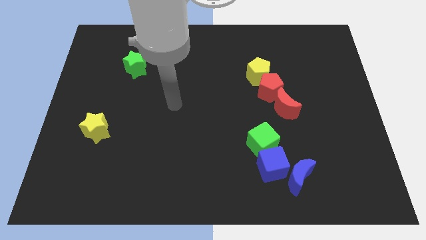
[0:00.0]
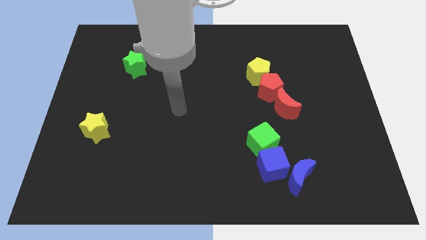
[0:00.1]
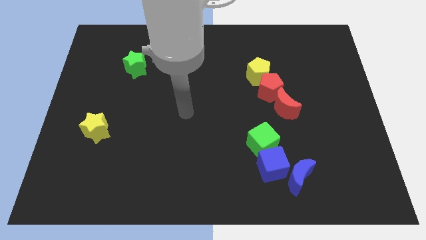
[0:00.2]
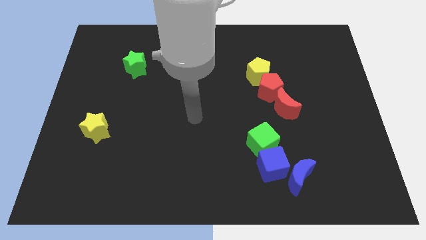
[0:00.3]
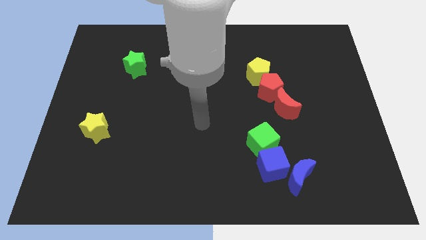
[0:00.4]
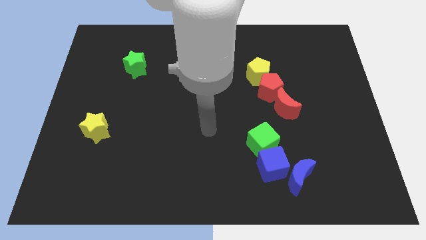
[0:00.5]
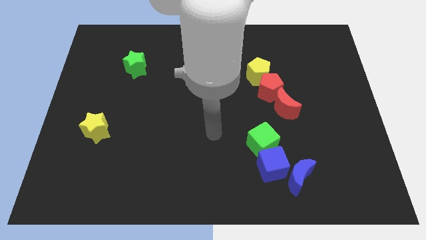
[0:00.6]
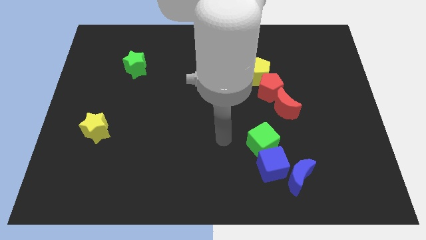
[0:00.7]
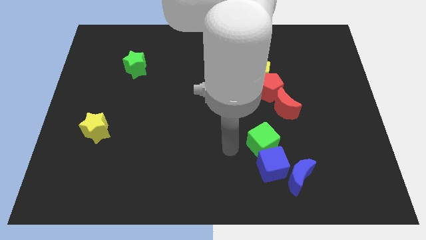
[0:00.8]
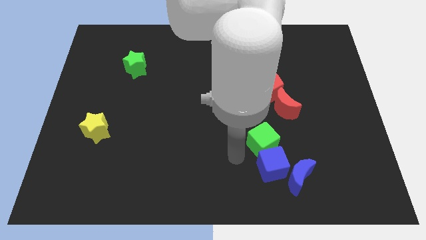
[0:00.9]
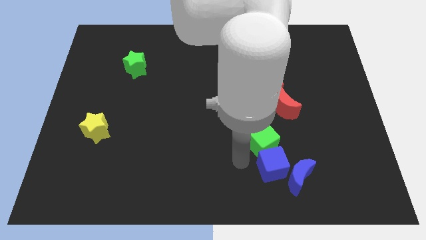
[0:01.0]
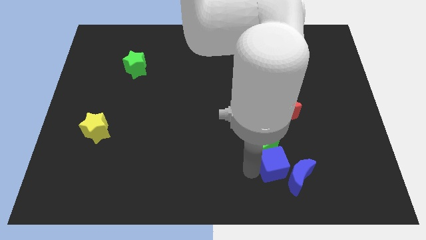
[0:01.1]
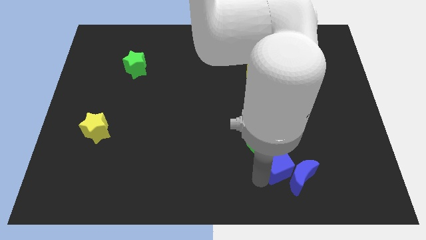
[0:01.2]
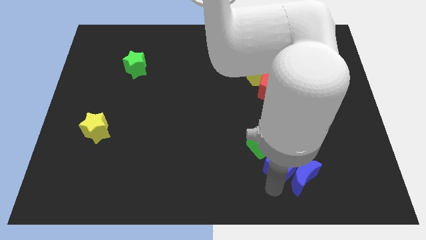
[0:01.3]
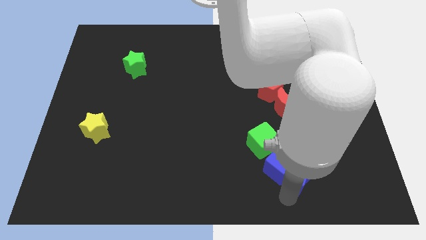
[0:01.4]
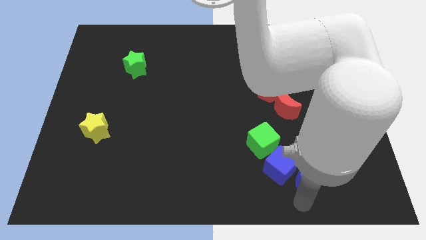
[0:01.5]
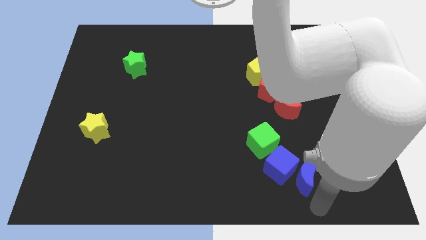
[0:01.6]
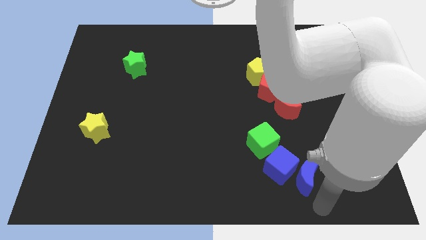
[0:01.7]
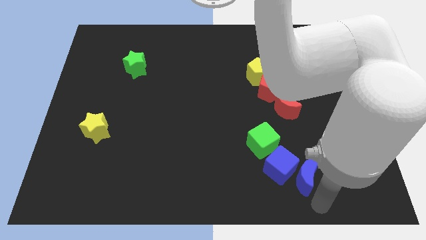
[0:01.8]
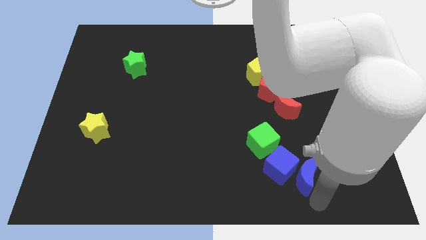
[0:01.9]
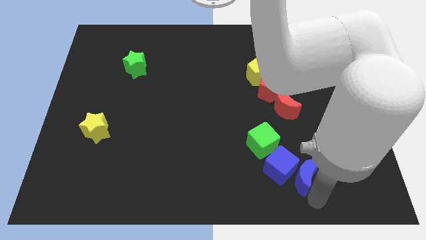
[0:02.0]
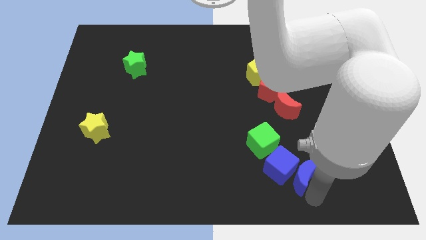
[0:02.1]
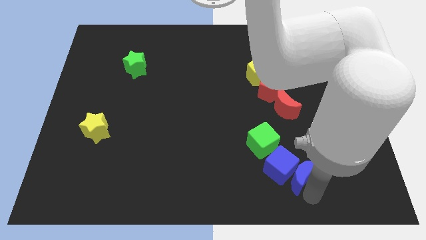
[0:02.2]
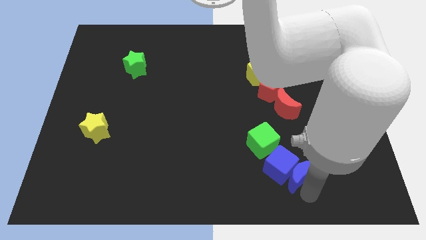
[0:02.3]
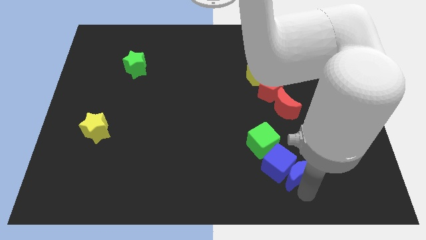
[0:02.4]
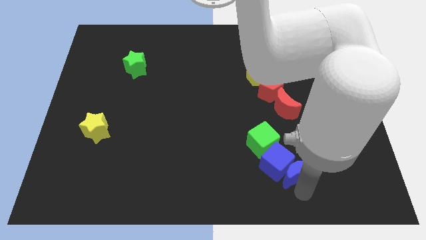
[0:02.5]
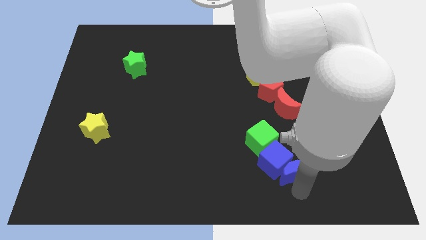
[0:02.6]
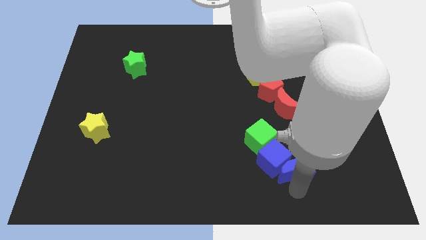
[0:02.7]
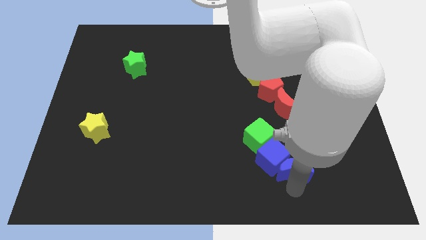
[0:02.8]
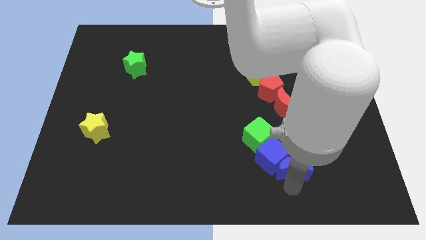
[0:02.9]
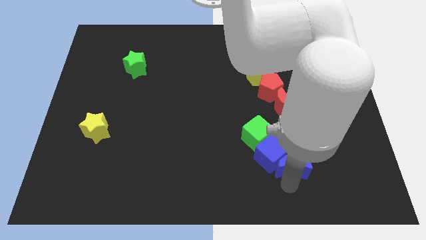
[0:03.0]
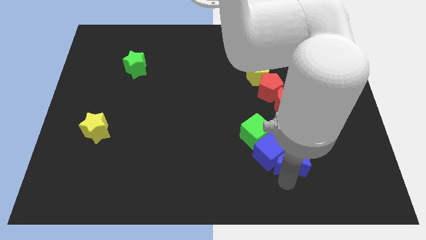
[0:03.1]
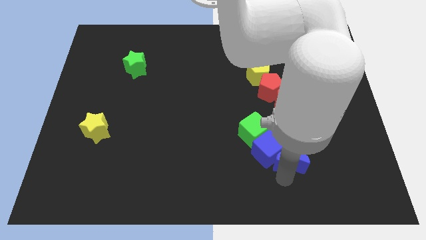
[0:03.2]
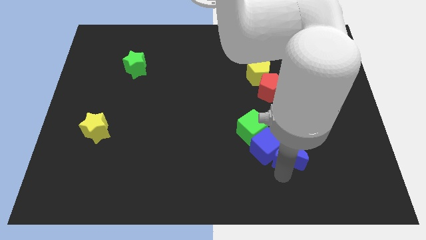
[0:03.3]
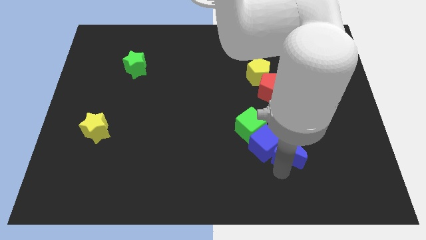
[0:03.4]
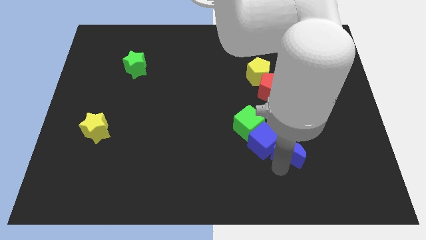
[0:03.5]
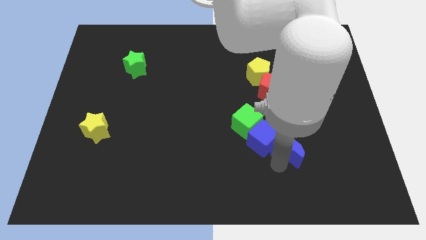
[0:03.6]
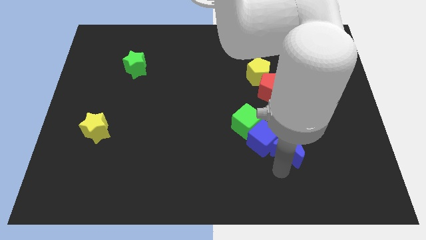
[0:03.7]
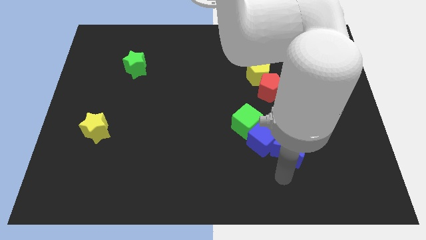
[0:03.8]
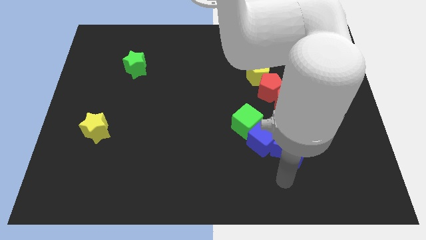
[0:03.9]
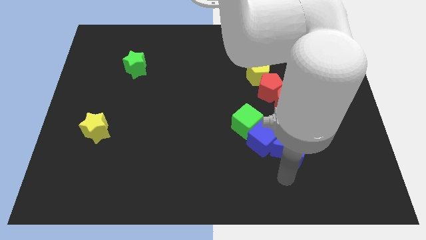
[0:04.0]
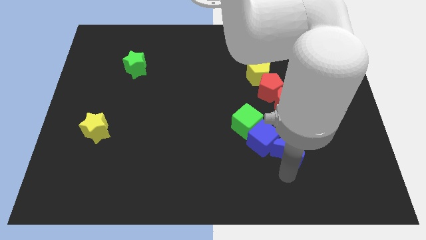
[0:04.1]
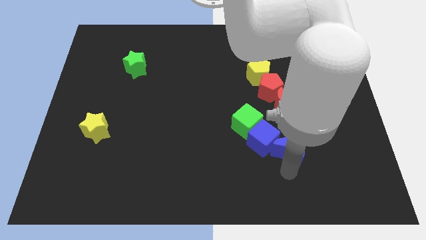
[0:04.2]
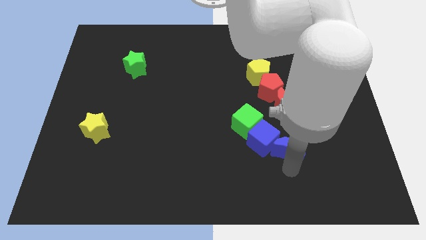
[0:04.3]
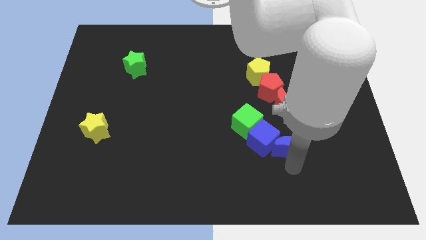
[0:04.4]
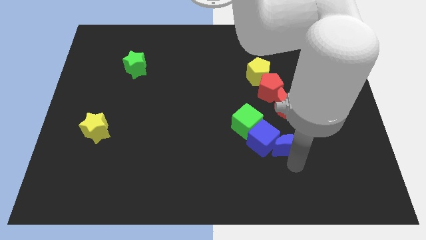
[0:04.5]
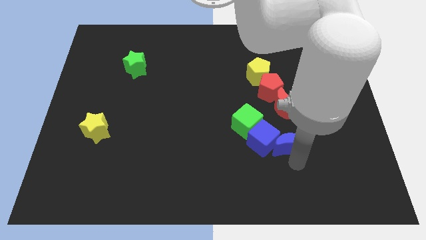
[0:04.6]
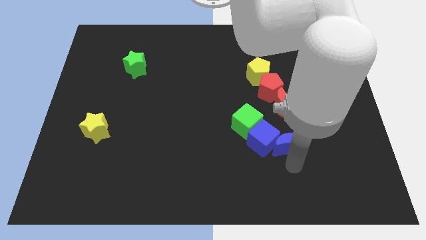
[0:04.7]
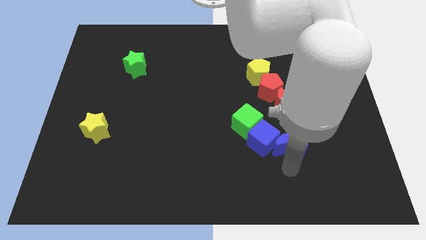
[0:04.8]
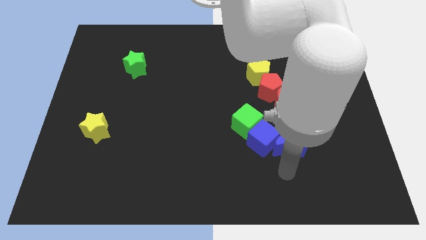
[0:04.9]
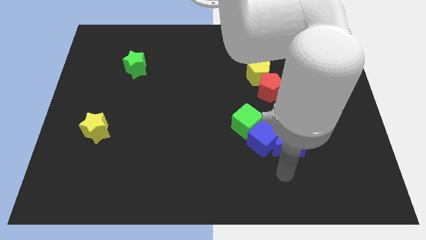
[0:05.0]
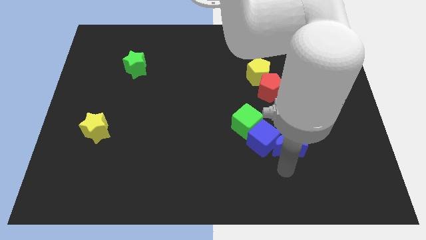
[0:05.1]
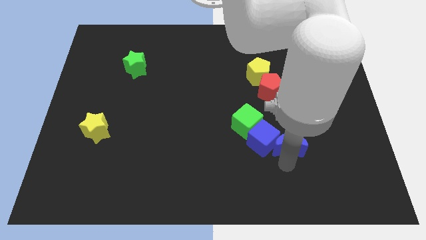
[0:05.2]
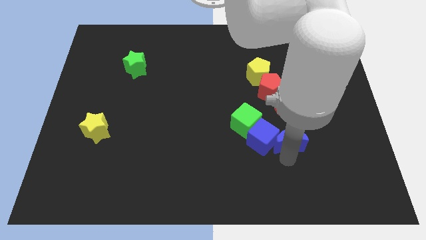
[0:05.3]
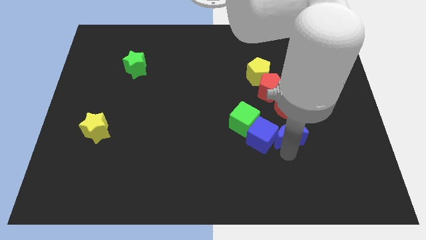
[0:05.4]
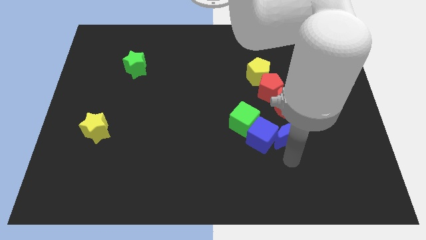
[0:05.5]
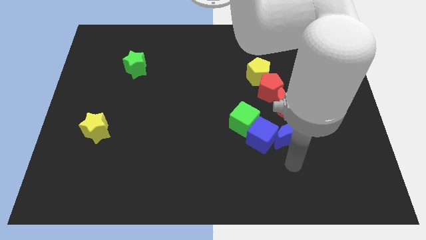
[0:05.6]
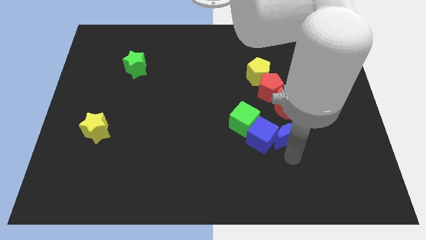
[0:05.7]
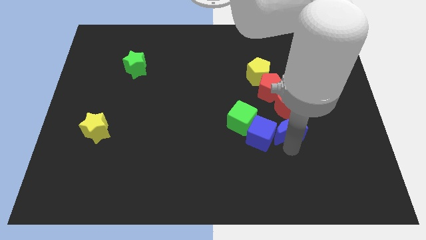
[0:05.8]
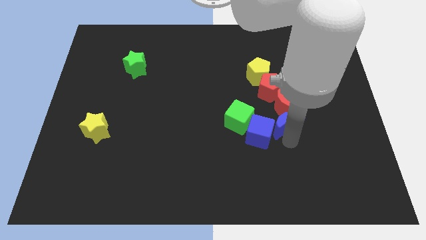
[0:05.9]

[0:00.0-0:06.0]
slide the blue moon next to the red moon
